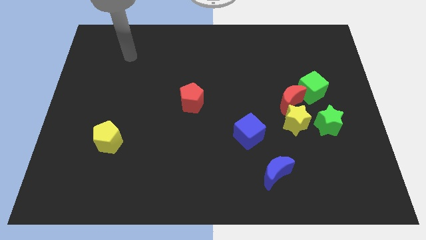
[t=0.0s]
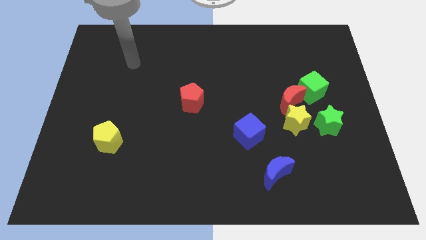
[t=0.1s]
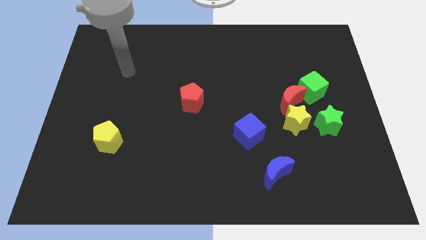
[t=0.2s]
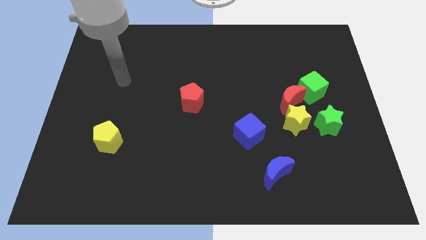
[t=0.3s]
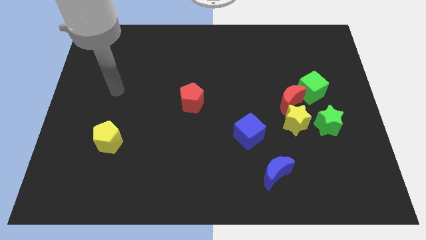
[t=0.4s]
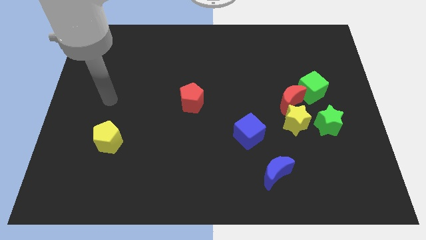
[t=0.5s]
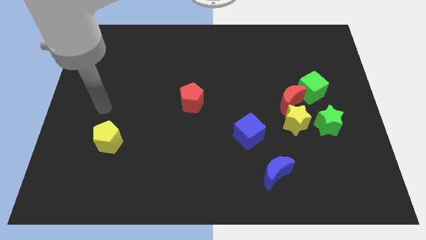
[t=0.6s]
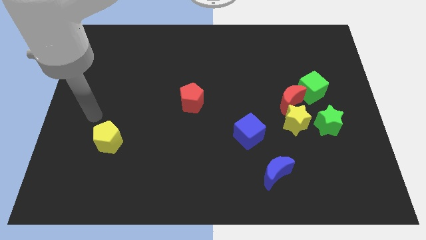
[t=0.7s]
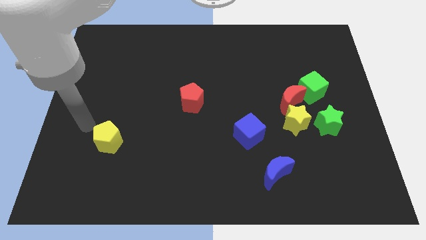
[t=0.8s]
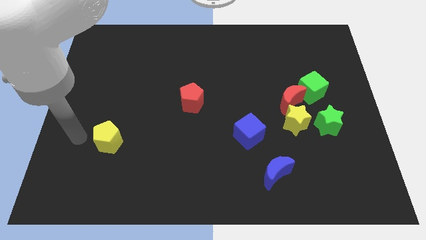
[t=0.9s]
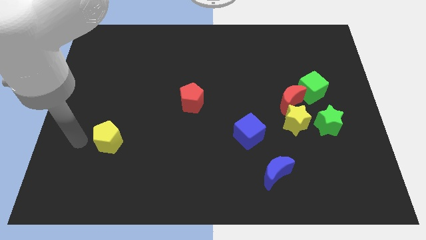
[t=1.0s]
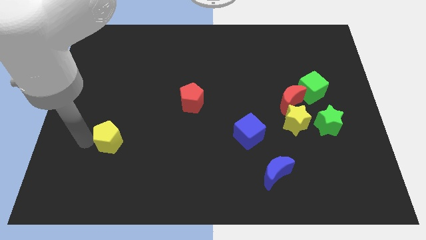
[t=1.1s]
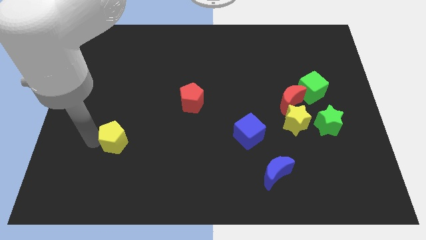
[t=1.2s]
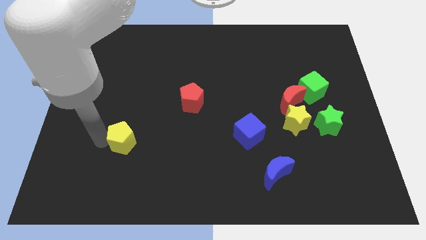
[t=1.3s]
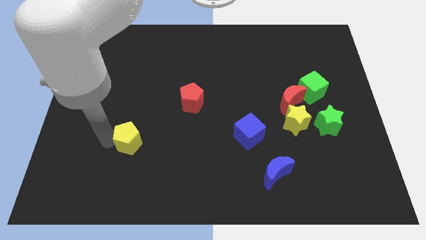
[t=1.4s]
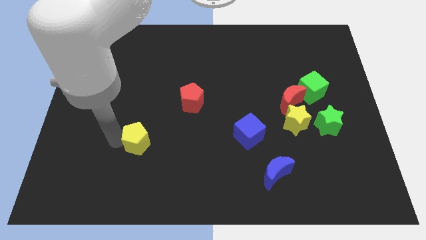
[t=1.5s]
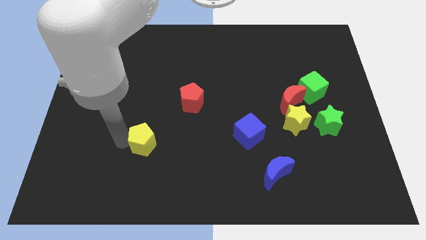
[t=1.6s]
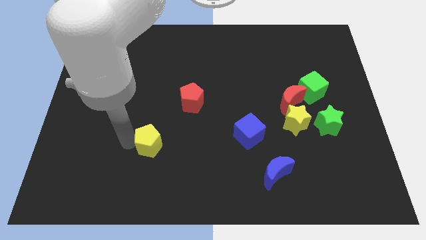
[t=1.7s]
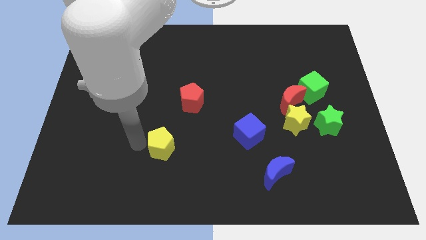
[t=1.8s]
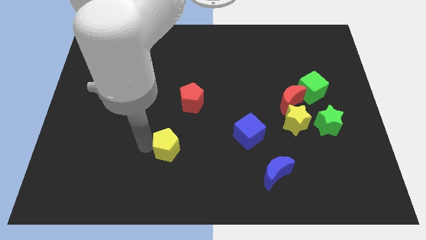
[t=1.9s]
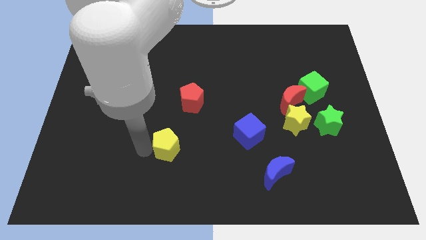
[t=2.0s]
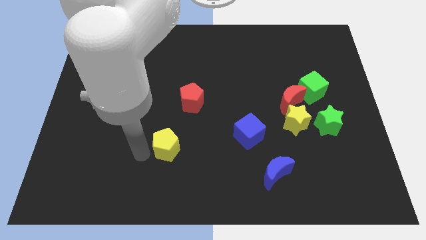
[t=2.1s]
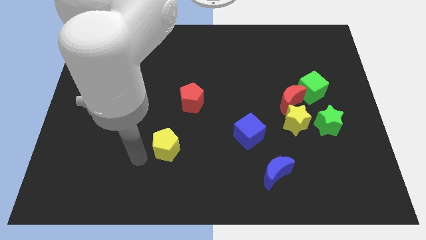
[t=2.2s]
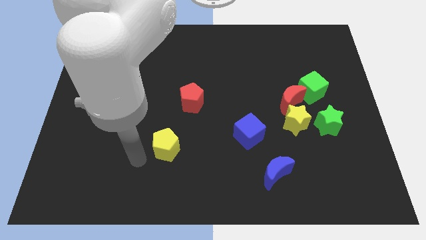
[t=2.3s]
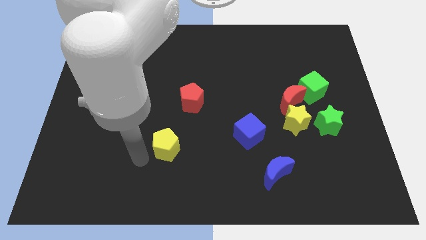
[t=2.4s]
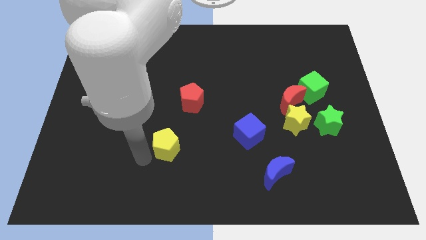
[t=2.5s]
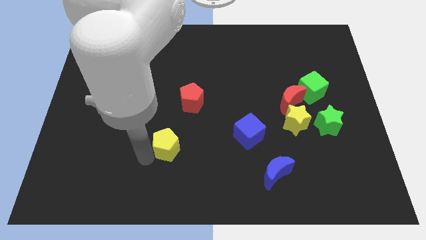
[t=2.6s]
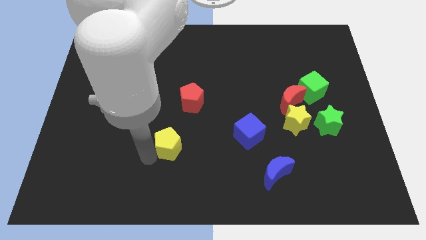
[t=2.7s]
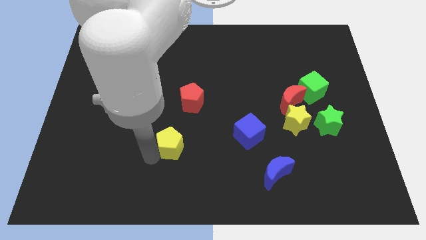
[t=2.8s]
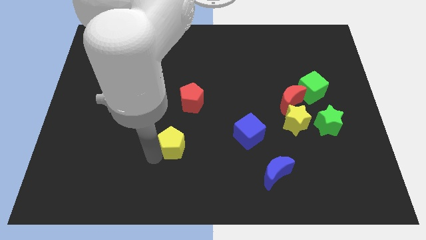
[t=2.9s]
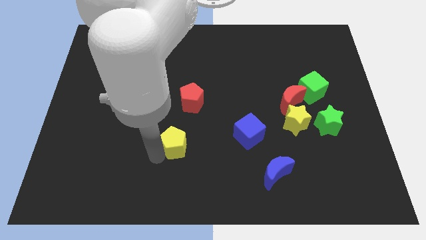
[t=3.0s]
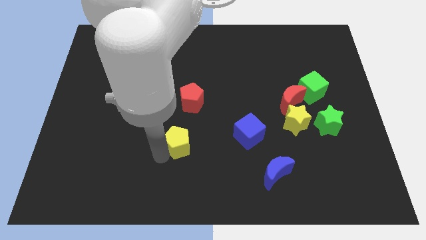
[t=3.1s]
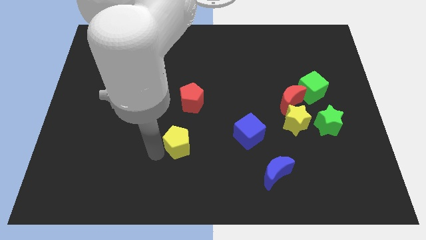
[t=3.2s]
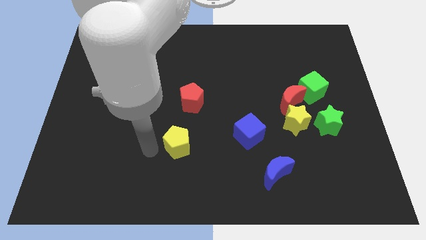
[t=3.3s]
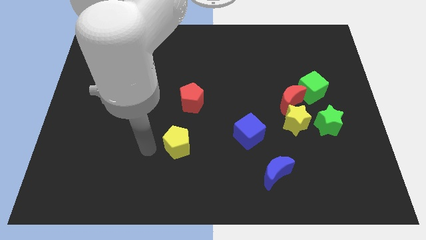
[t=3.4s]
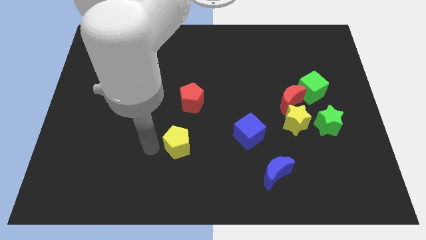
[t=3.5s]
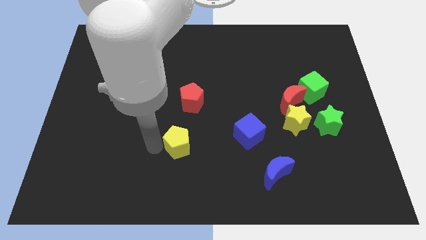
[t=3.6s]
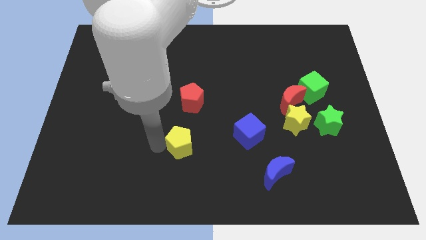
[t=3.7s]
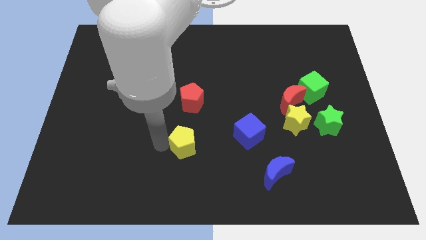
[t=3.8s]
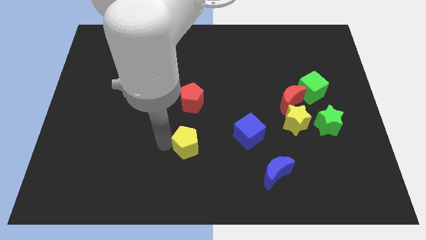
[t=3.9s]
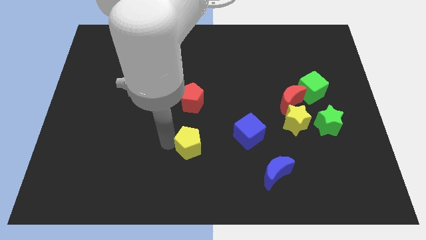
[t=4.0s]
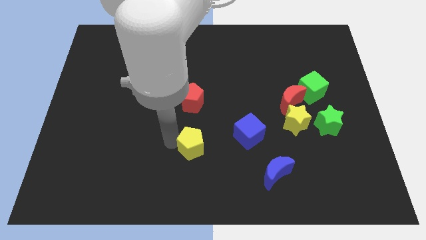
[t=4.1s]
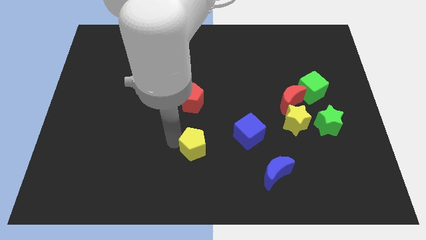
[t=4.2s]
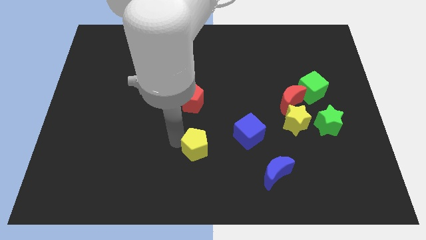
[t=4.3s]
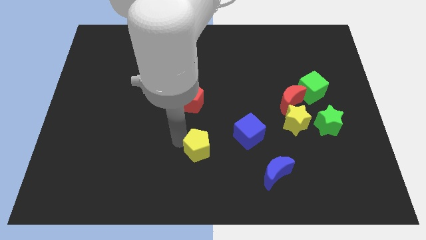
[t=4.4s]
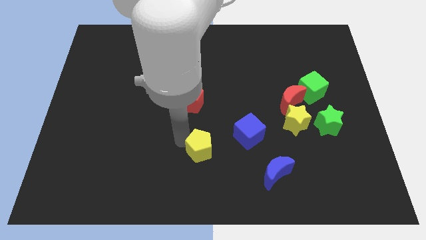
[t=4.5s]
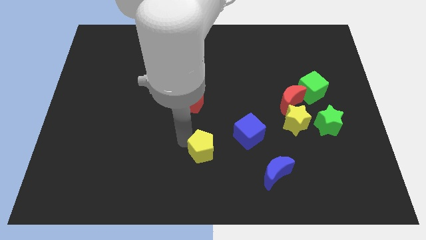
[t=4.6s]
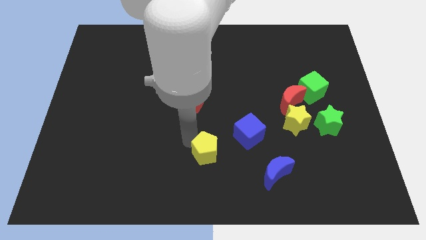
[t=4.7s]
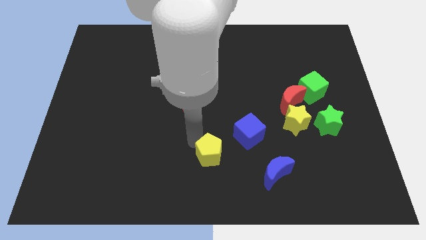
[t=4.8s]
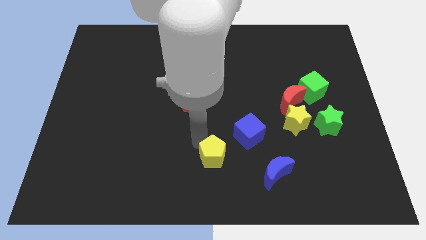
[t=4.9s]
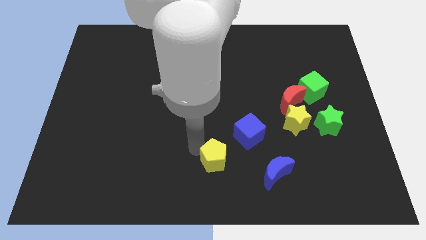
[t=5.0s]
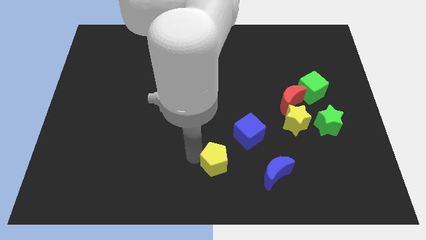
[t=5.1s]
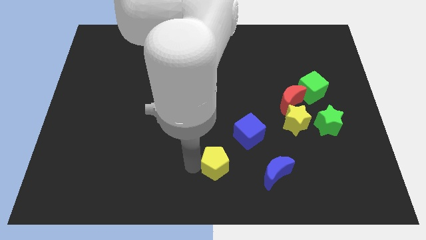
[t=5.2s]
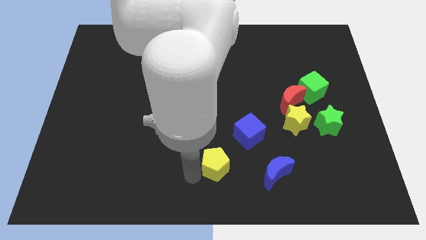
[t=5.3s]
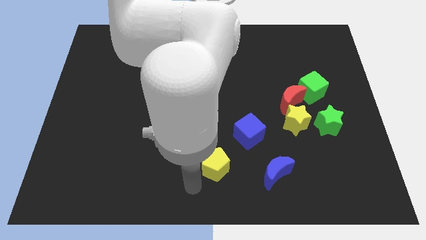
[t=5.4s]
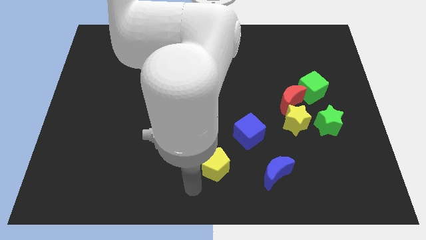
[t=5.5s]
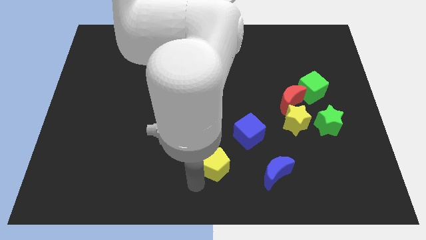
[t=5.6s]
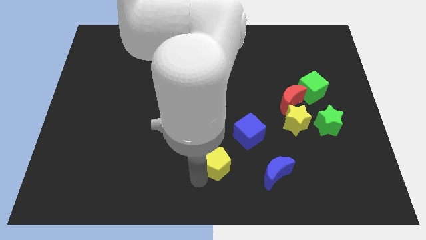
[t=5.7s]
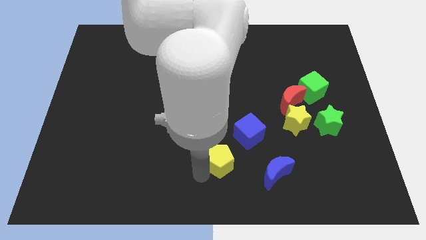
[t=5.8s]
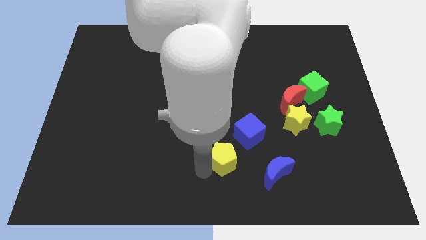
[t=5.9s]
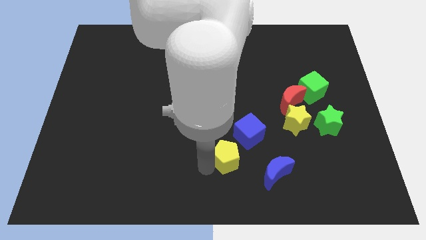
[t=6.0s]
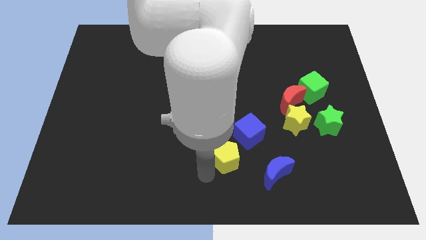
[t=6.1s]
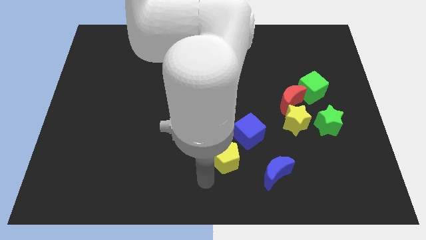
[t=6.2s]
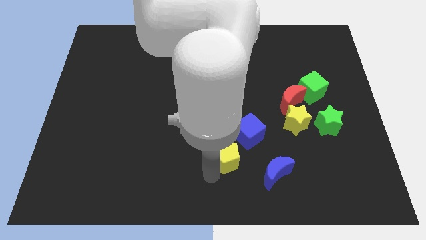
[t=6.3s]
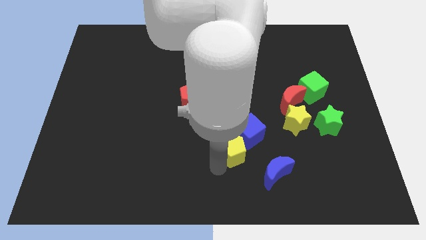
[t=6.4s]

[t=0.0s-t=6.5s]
move the yellow pentagon towards the blue cube
